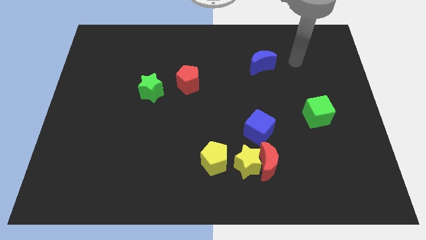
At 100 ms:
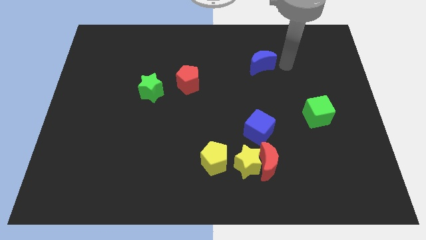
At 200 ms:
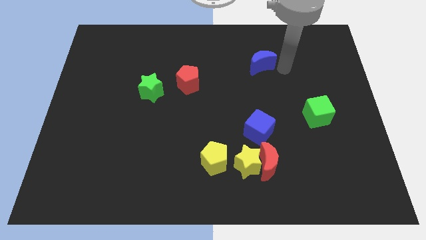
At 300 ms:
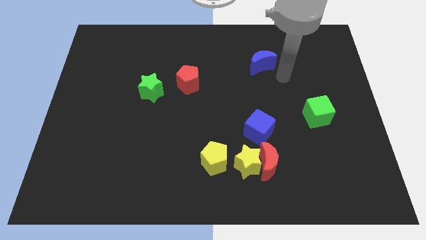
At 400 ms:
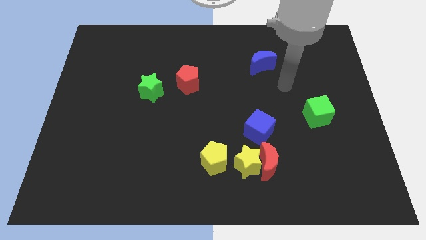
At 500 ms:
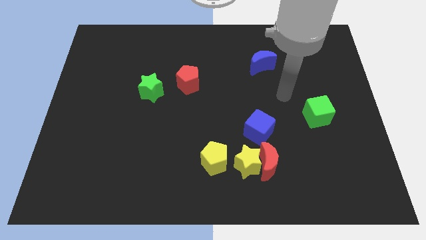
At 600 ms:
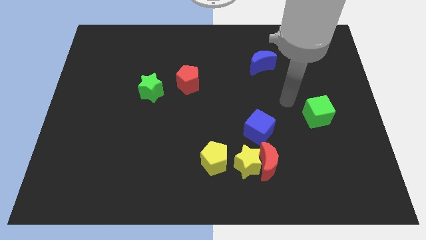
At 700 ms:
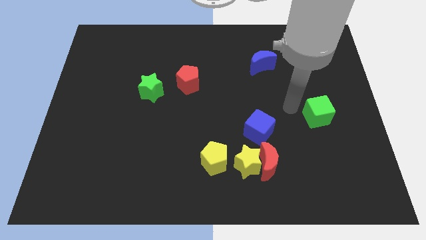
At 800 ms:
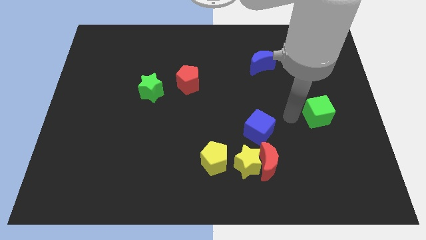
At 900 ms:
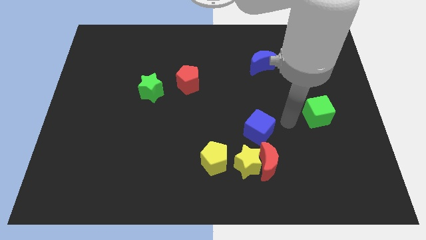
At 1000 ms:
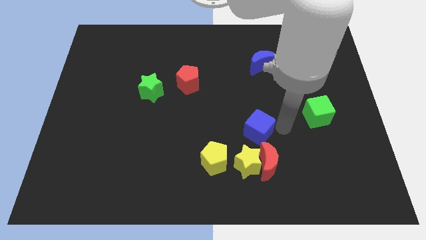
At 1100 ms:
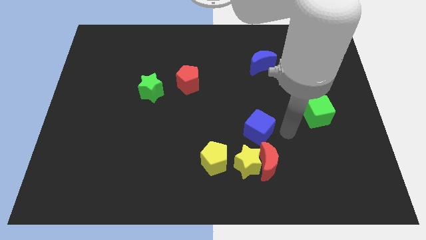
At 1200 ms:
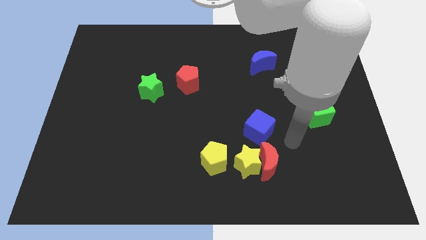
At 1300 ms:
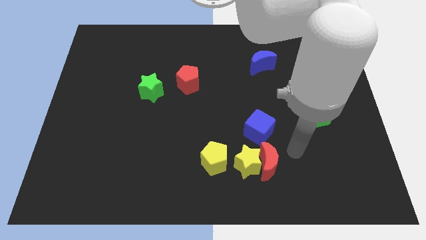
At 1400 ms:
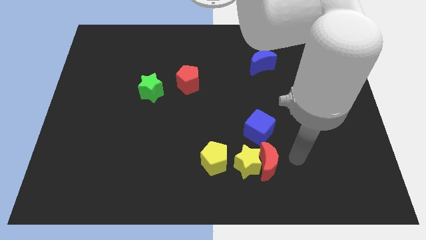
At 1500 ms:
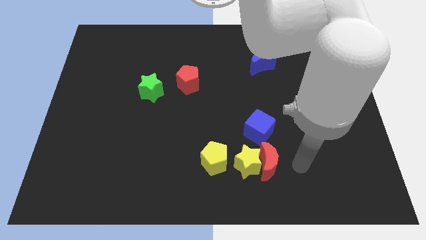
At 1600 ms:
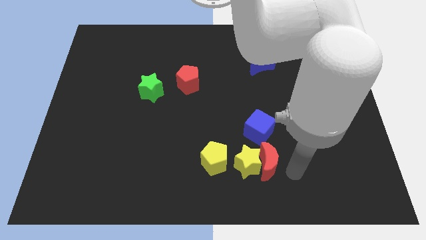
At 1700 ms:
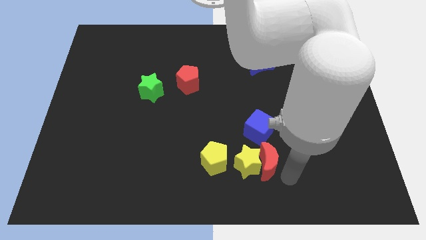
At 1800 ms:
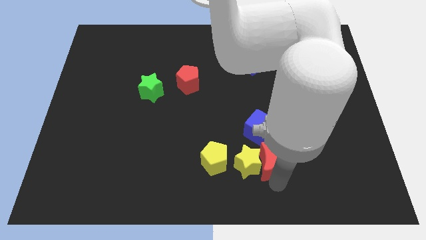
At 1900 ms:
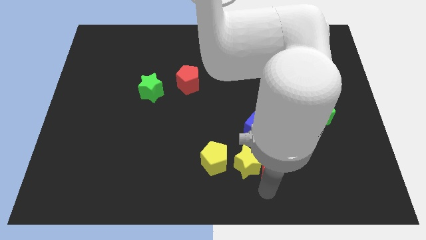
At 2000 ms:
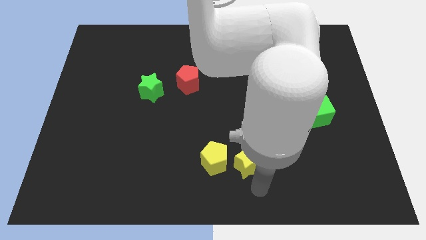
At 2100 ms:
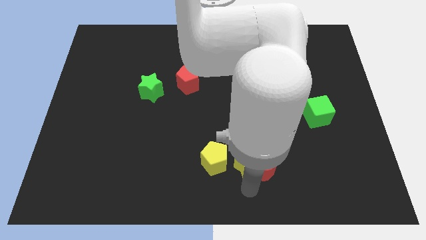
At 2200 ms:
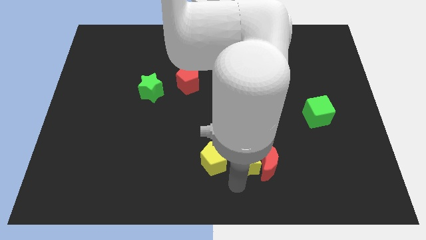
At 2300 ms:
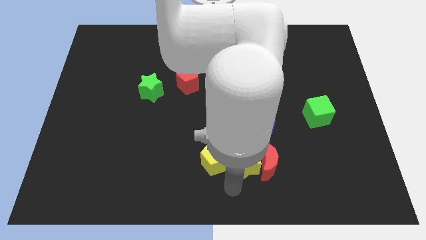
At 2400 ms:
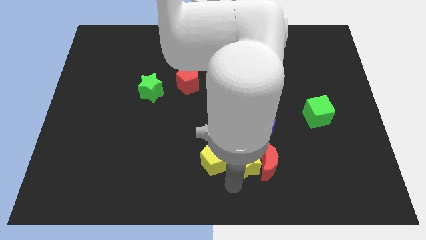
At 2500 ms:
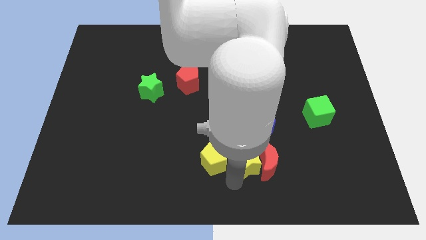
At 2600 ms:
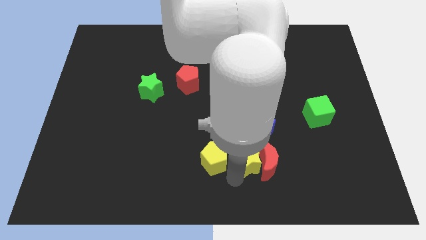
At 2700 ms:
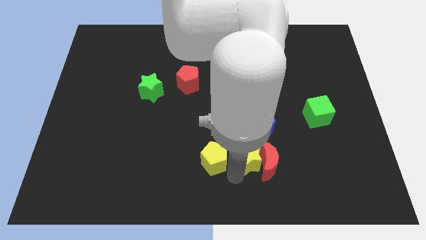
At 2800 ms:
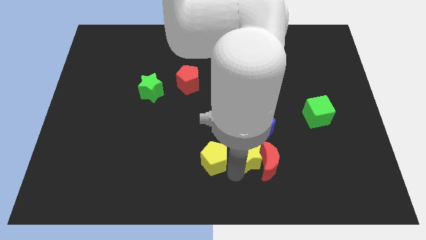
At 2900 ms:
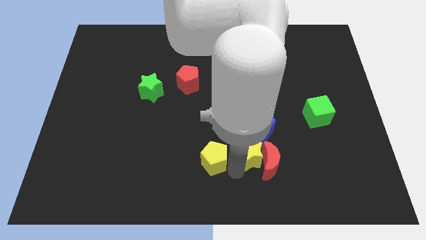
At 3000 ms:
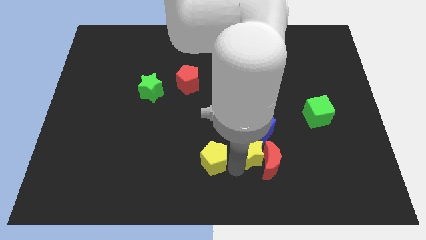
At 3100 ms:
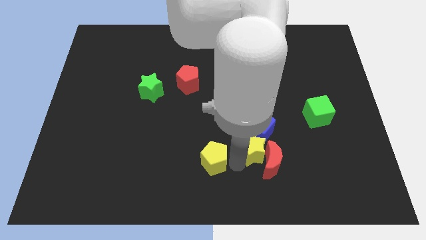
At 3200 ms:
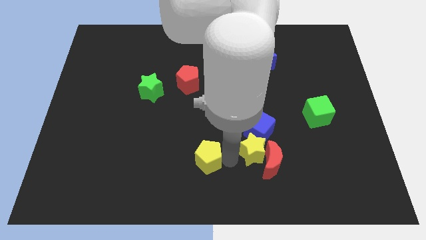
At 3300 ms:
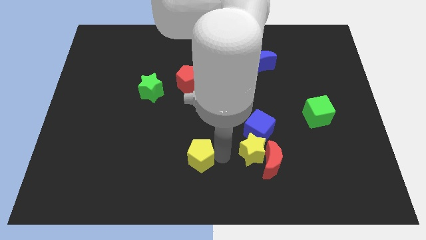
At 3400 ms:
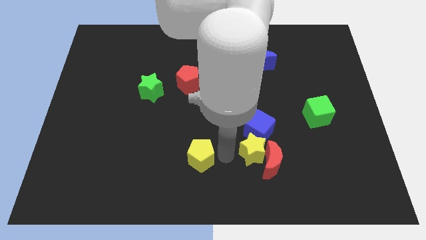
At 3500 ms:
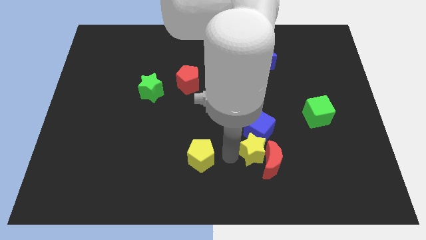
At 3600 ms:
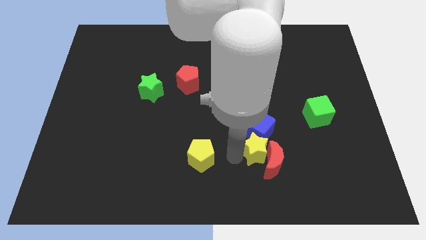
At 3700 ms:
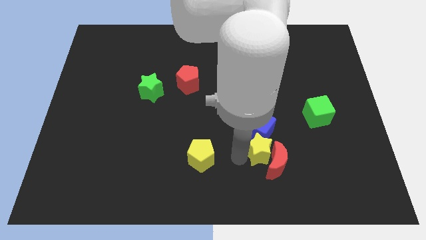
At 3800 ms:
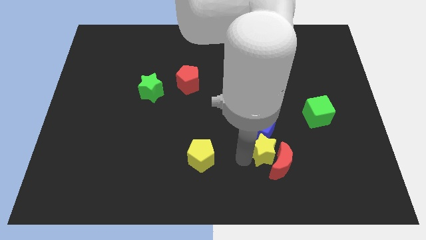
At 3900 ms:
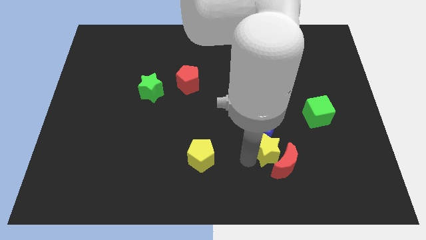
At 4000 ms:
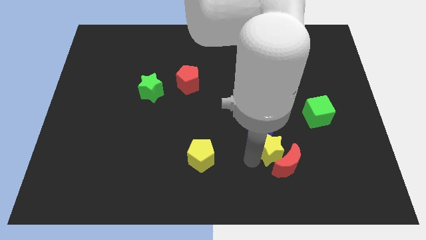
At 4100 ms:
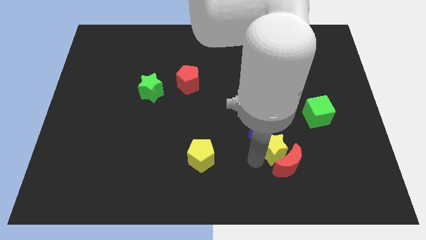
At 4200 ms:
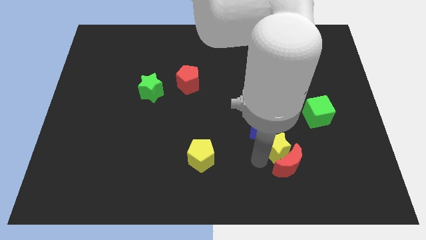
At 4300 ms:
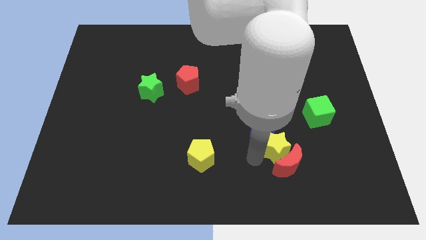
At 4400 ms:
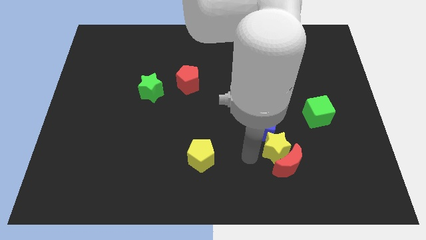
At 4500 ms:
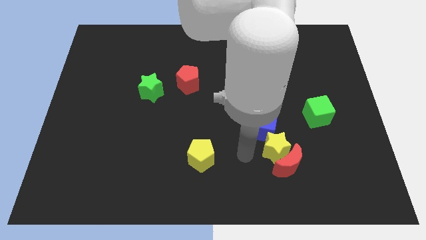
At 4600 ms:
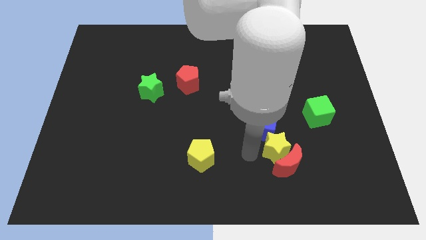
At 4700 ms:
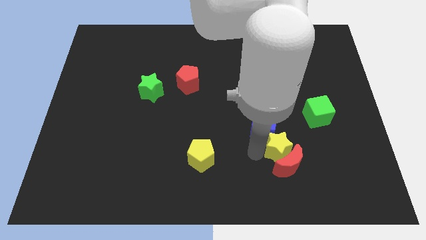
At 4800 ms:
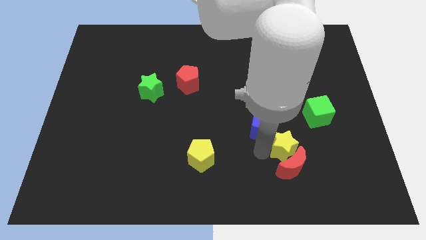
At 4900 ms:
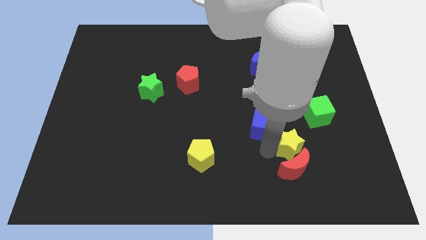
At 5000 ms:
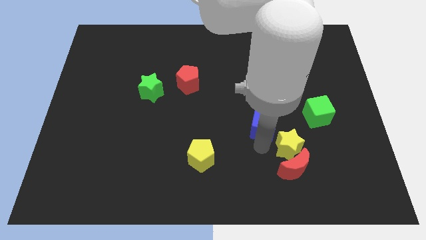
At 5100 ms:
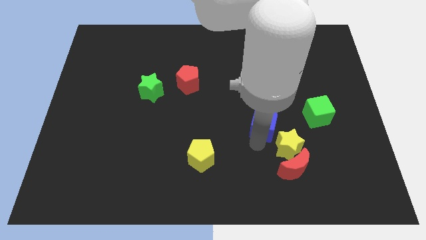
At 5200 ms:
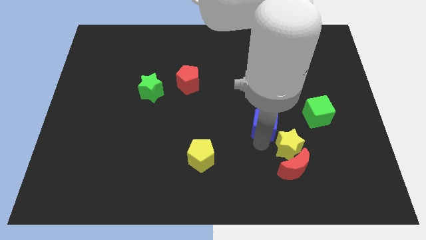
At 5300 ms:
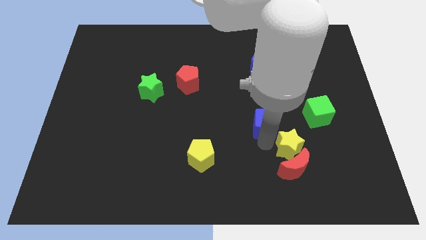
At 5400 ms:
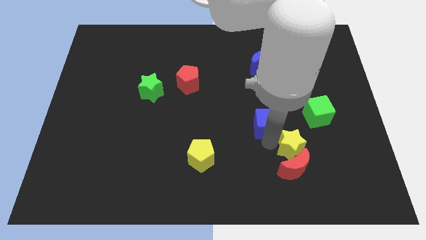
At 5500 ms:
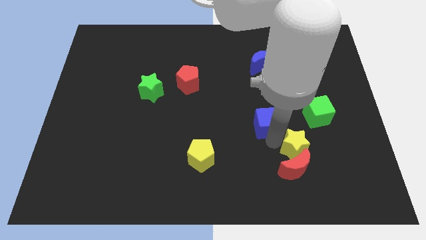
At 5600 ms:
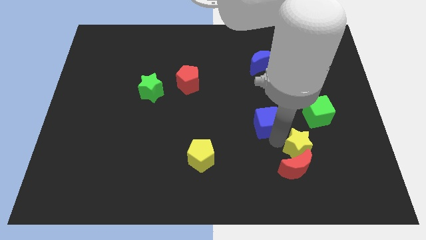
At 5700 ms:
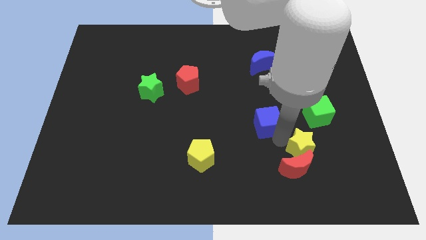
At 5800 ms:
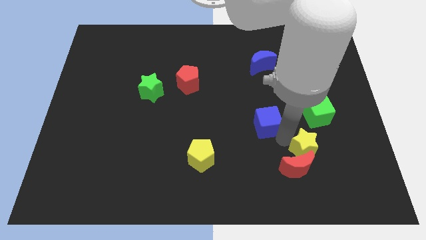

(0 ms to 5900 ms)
put the yellow star to the bottom side of the green cube

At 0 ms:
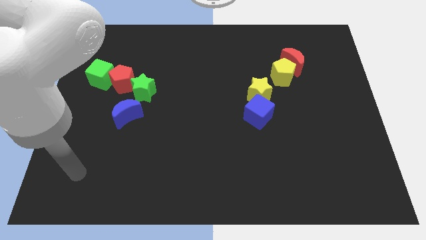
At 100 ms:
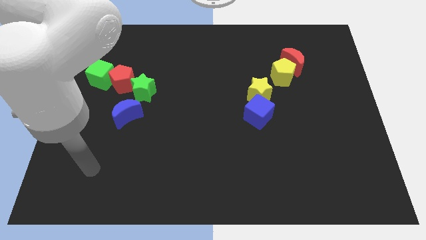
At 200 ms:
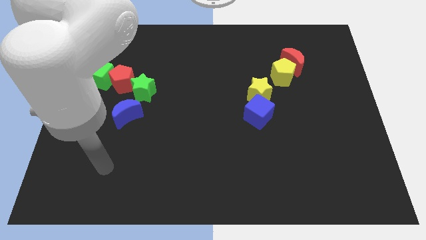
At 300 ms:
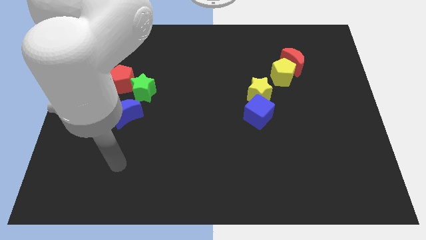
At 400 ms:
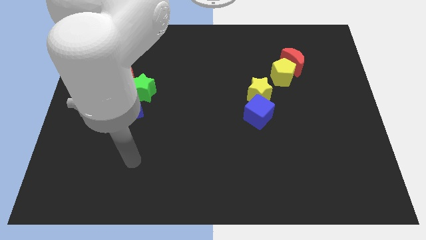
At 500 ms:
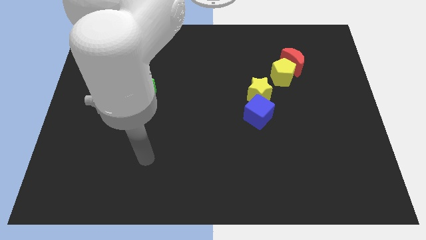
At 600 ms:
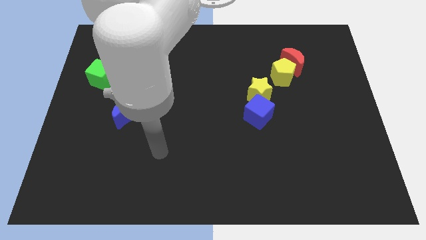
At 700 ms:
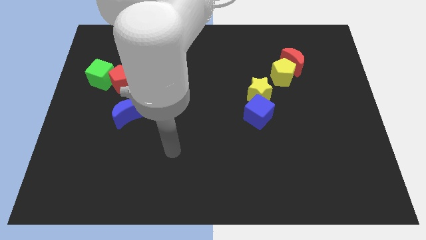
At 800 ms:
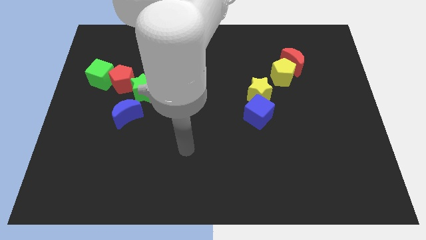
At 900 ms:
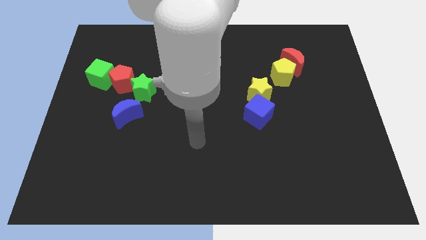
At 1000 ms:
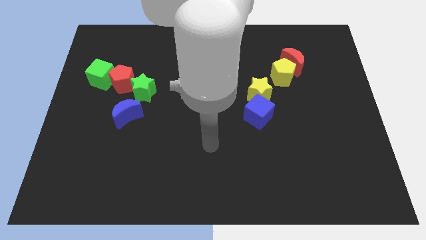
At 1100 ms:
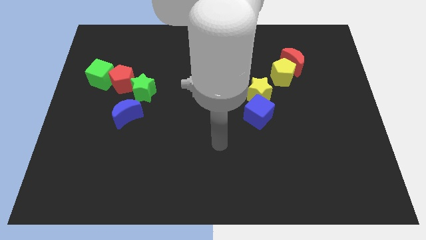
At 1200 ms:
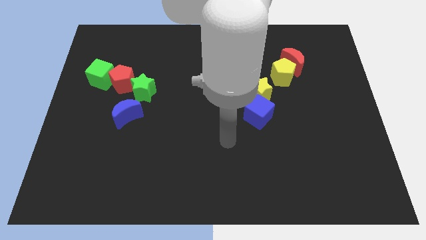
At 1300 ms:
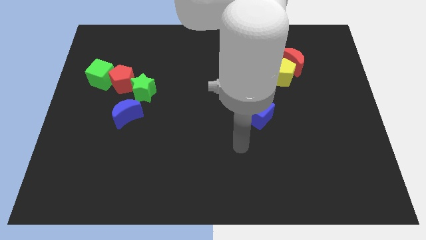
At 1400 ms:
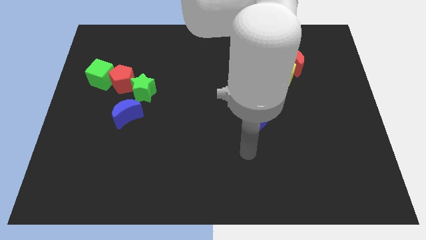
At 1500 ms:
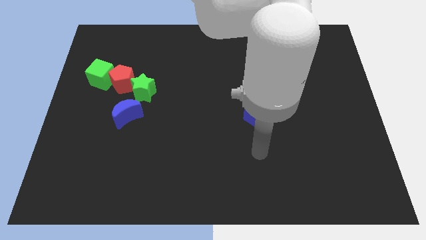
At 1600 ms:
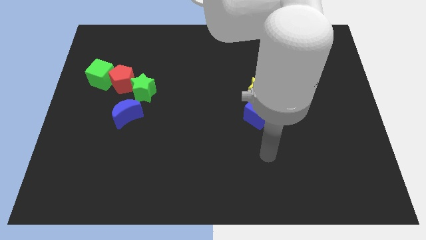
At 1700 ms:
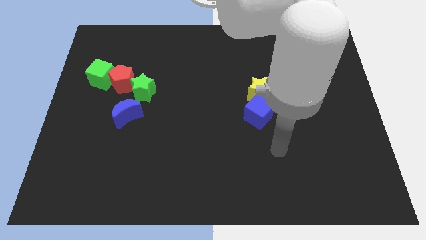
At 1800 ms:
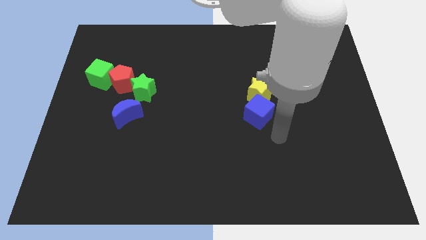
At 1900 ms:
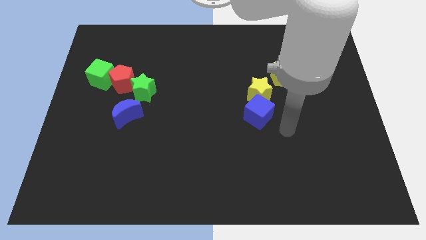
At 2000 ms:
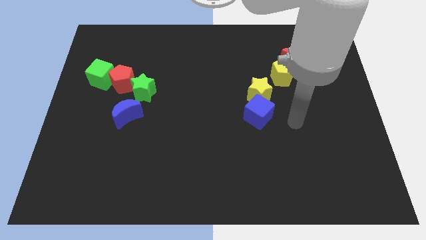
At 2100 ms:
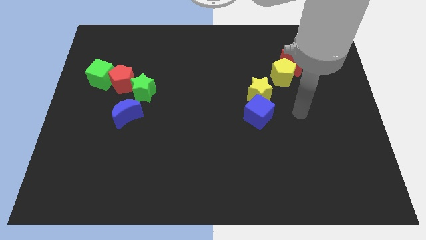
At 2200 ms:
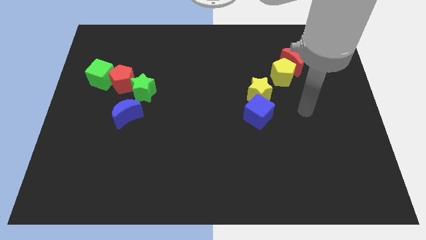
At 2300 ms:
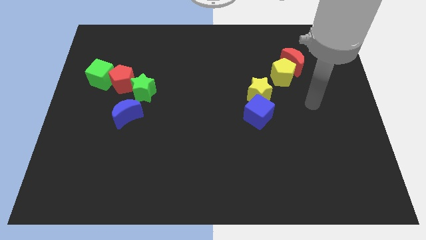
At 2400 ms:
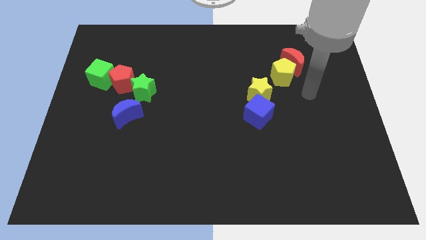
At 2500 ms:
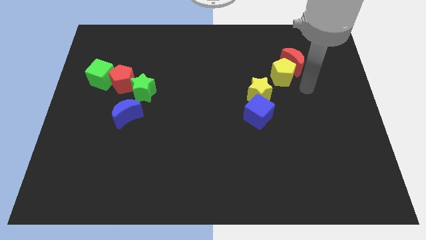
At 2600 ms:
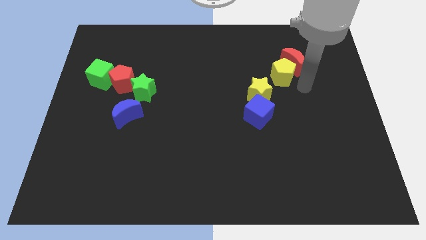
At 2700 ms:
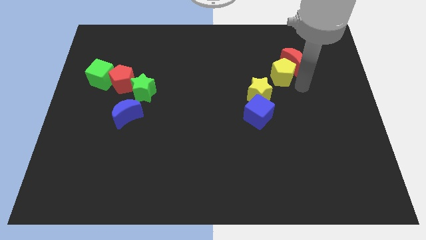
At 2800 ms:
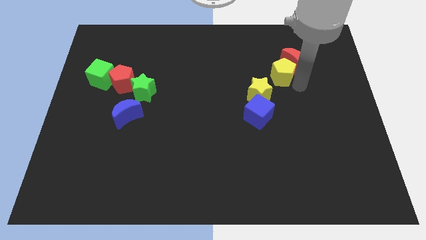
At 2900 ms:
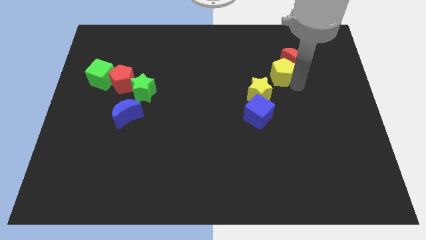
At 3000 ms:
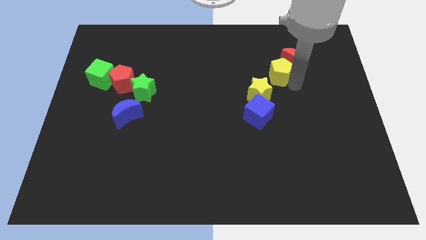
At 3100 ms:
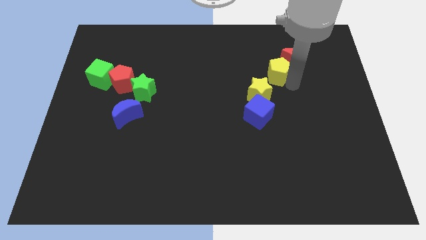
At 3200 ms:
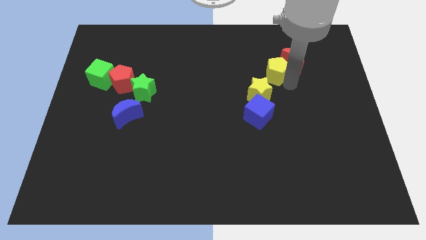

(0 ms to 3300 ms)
slide the yellow pentagon to the top of the yellow star
